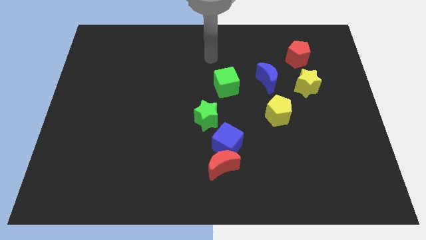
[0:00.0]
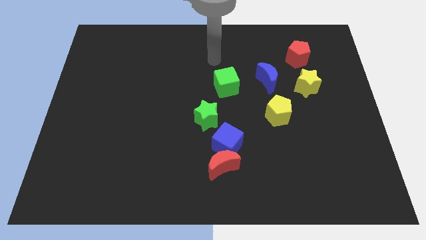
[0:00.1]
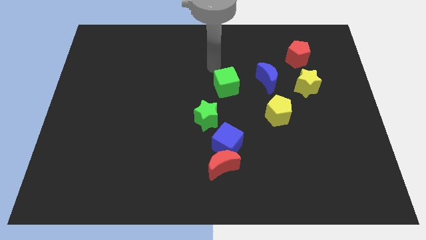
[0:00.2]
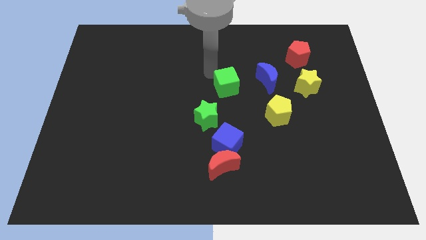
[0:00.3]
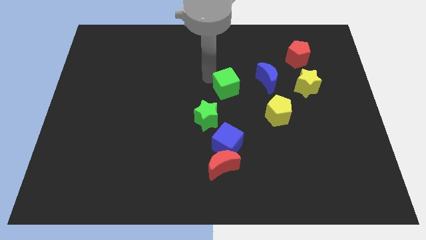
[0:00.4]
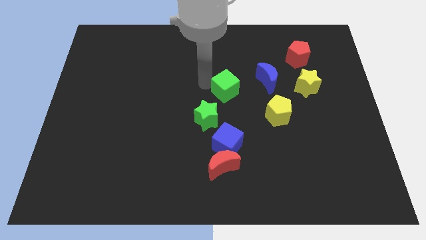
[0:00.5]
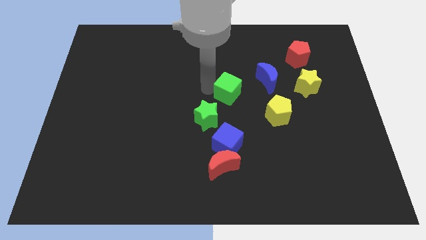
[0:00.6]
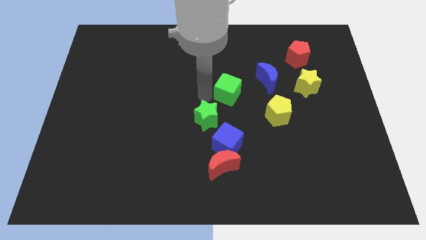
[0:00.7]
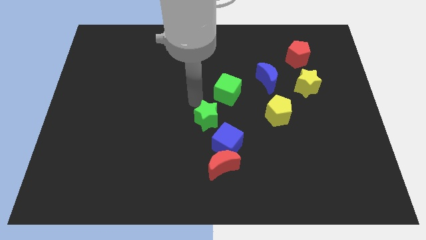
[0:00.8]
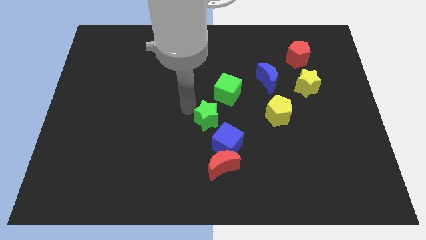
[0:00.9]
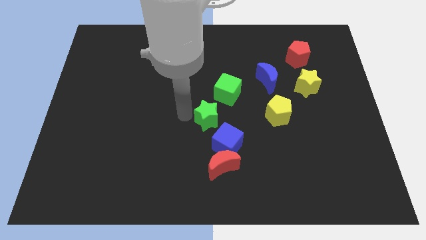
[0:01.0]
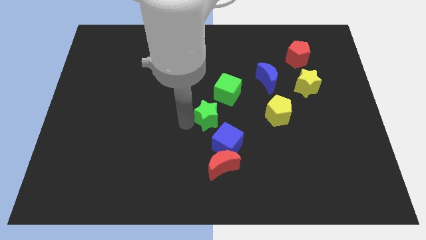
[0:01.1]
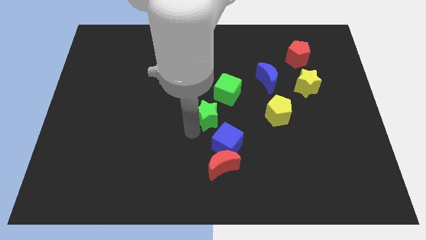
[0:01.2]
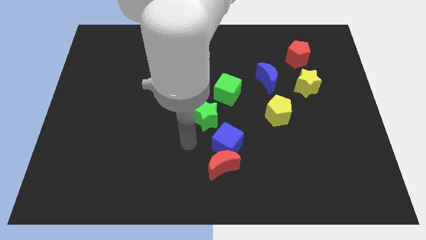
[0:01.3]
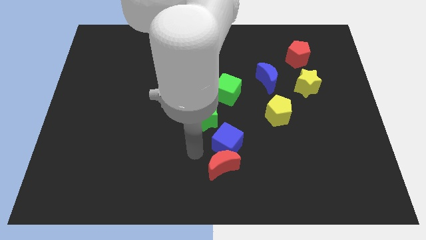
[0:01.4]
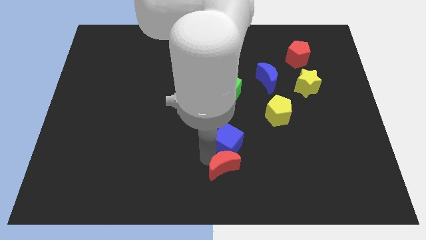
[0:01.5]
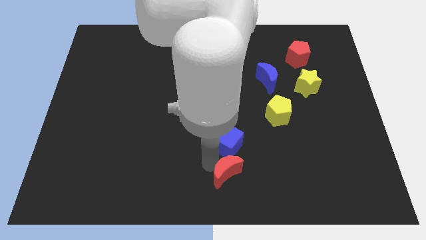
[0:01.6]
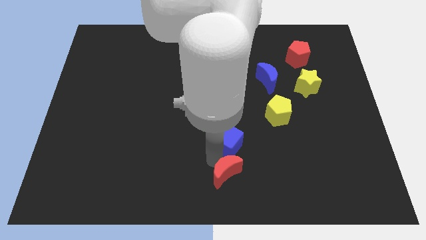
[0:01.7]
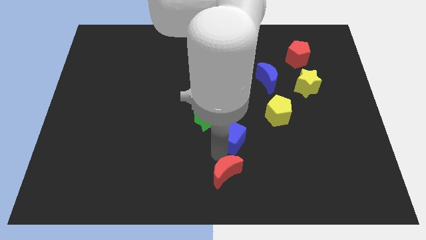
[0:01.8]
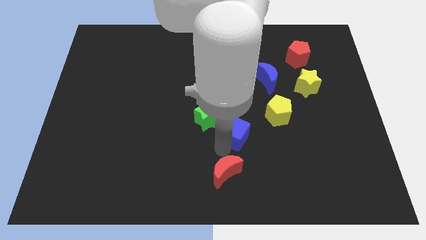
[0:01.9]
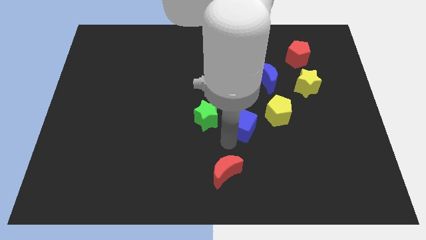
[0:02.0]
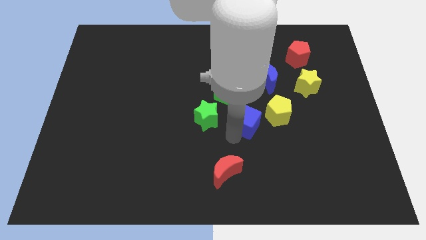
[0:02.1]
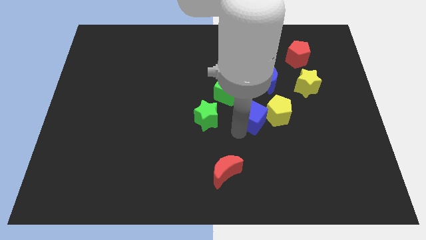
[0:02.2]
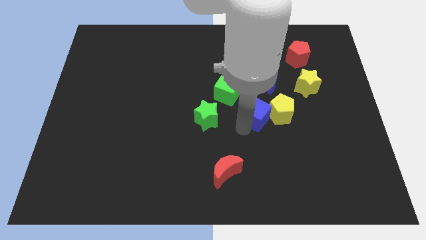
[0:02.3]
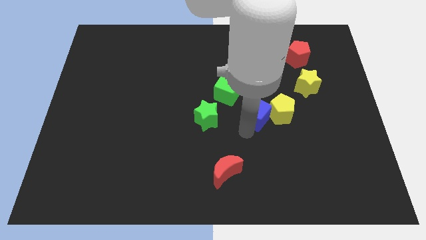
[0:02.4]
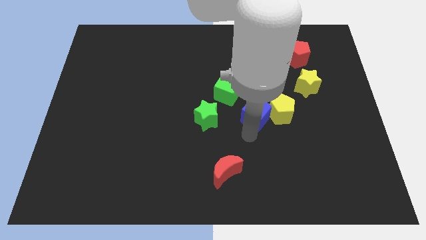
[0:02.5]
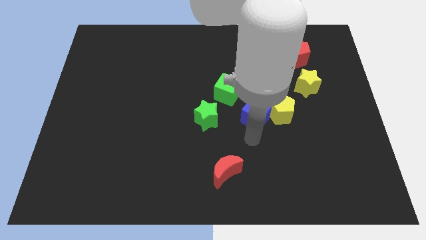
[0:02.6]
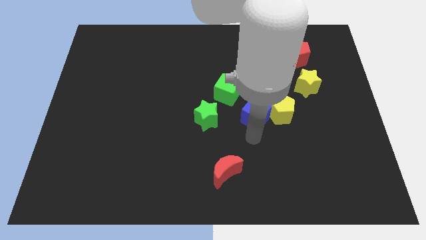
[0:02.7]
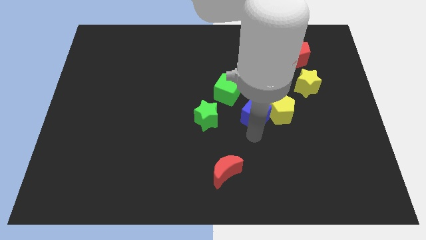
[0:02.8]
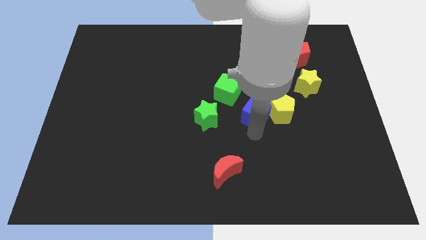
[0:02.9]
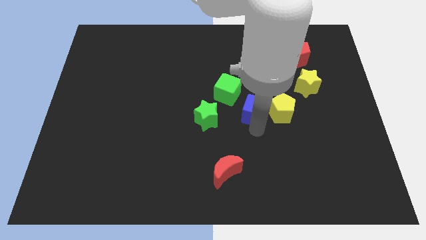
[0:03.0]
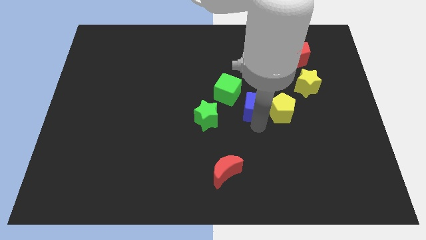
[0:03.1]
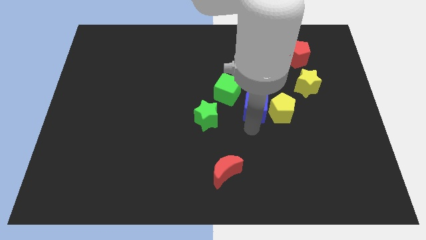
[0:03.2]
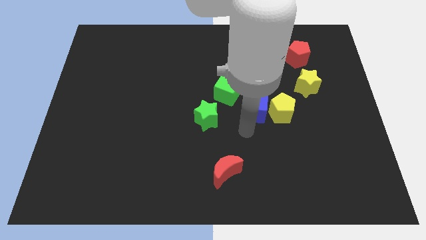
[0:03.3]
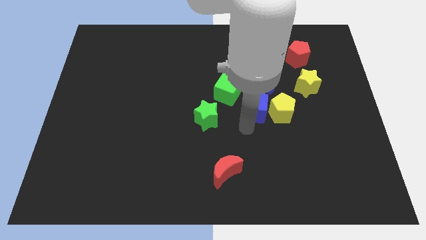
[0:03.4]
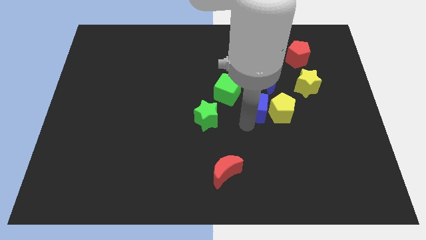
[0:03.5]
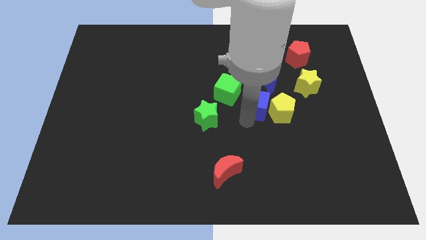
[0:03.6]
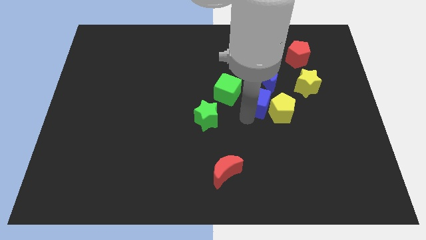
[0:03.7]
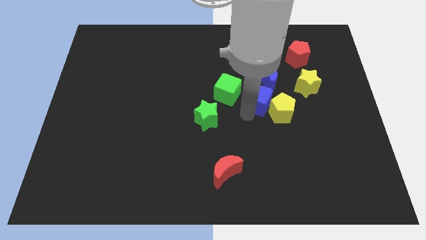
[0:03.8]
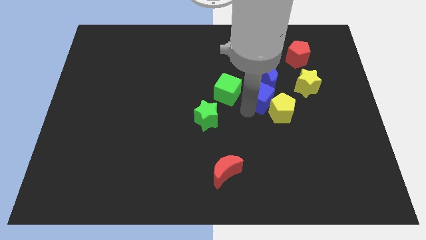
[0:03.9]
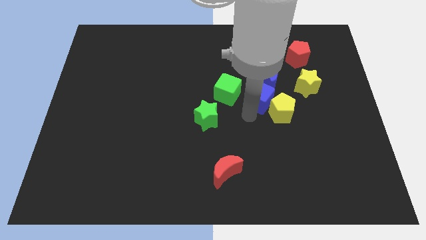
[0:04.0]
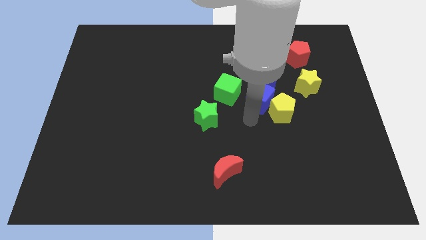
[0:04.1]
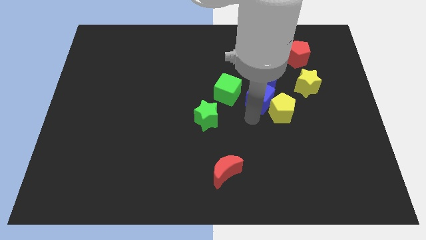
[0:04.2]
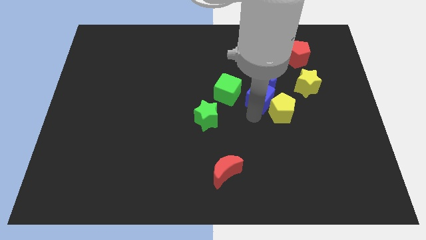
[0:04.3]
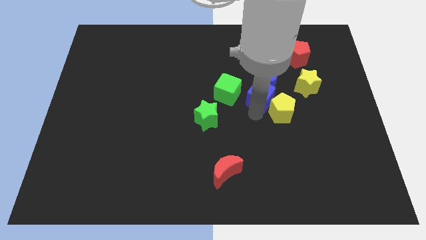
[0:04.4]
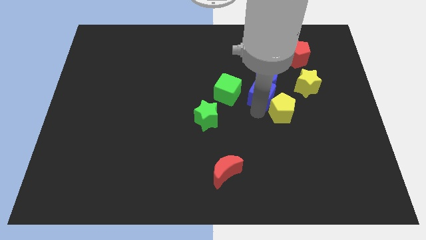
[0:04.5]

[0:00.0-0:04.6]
move the blue cube to the blue moon

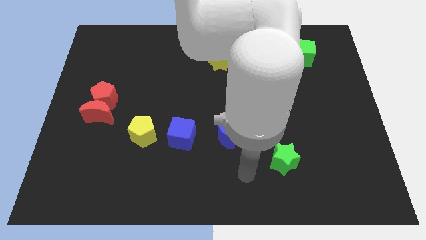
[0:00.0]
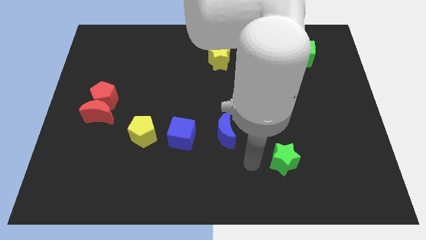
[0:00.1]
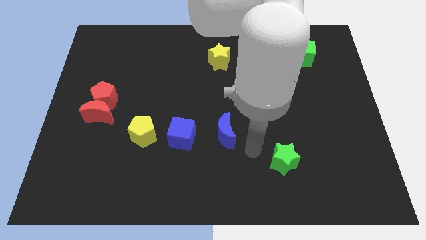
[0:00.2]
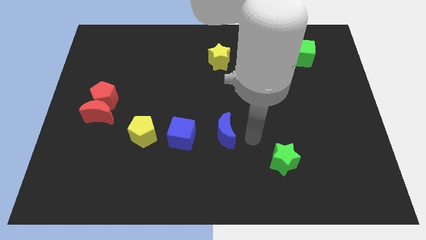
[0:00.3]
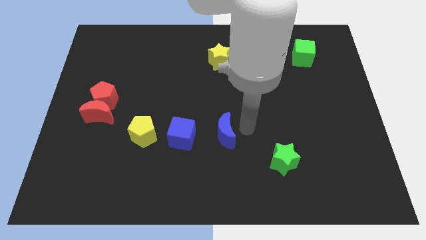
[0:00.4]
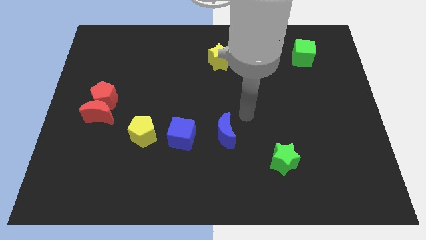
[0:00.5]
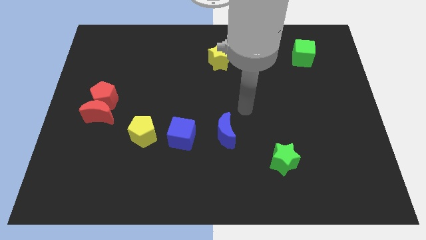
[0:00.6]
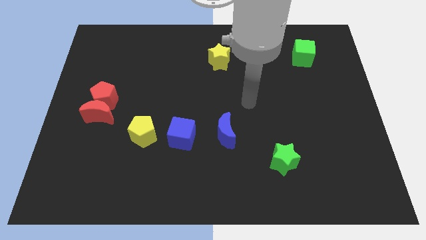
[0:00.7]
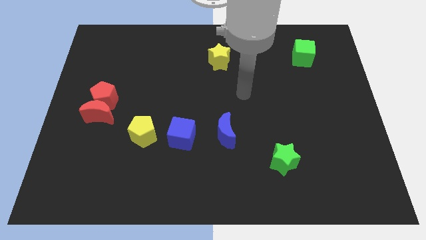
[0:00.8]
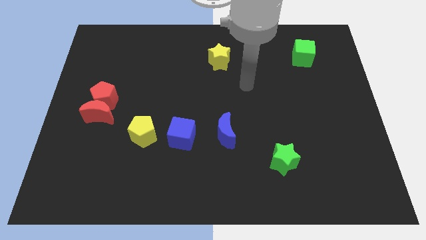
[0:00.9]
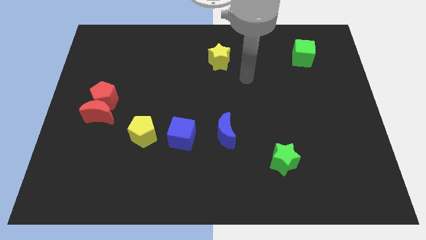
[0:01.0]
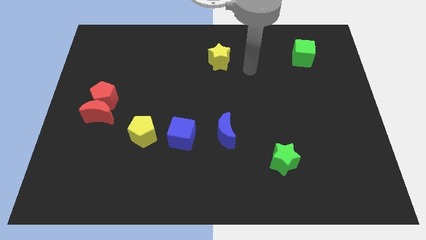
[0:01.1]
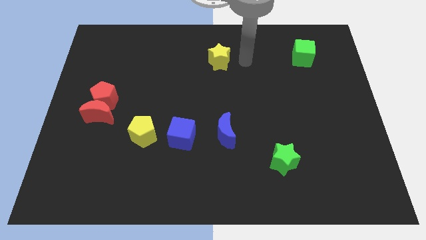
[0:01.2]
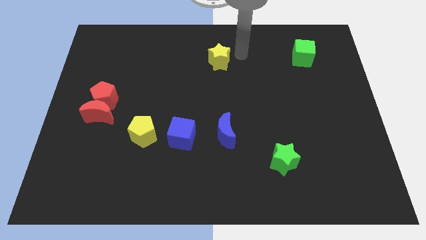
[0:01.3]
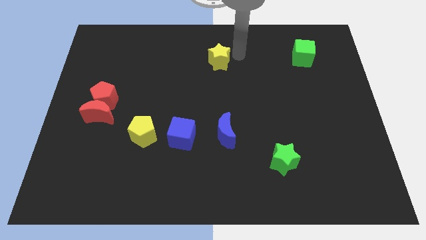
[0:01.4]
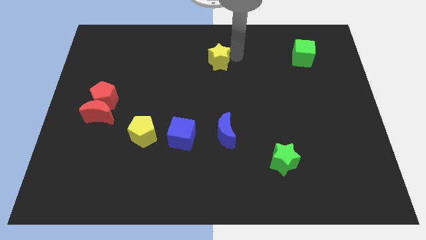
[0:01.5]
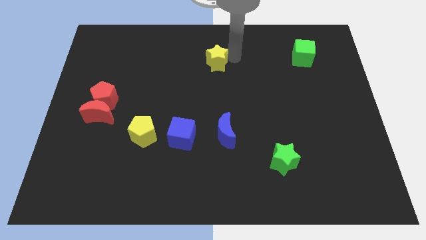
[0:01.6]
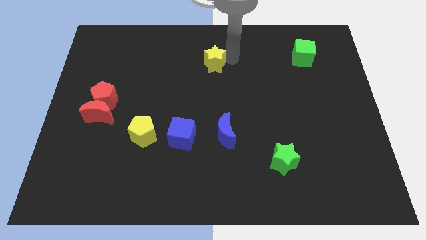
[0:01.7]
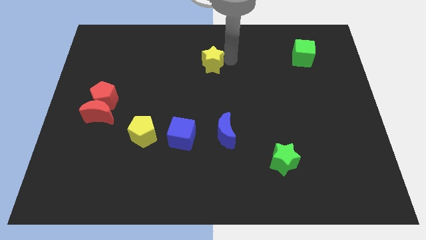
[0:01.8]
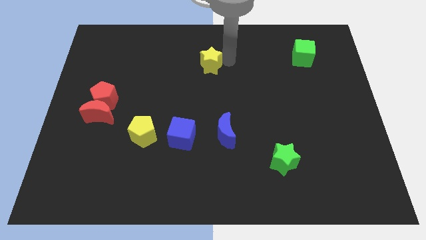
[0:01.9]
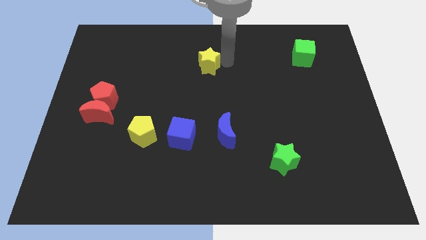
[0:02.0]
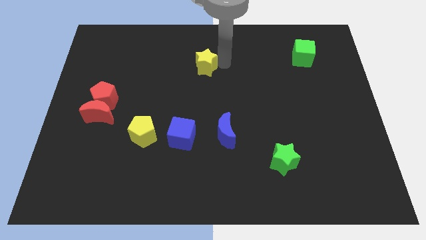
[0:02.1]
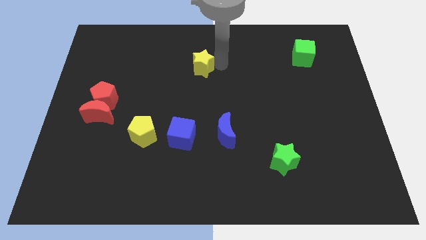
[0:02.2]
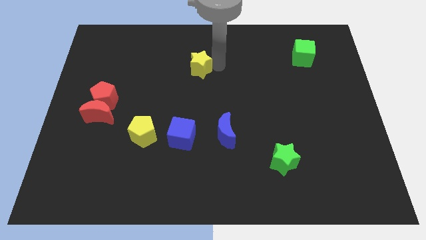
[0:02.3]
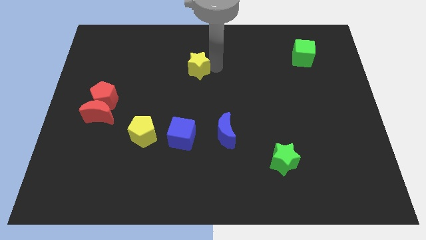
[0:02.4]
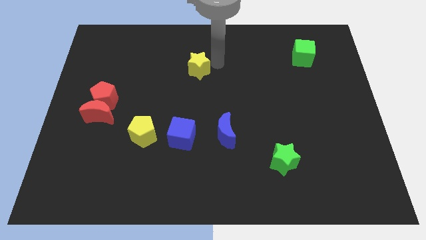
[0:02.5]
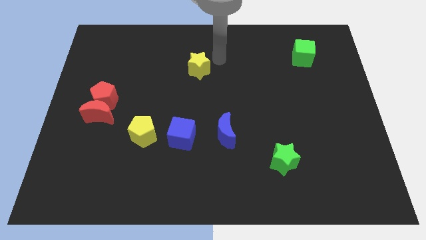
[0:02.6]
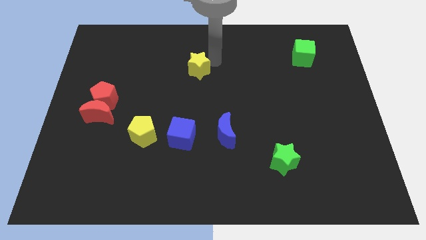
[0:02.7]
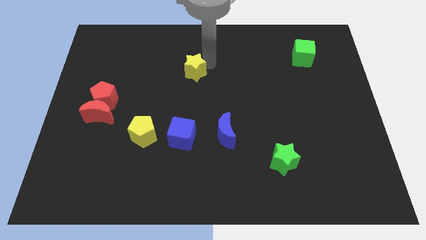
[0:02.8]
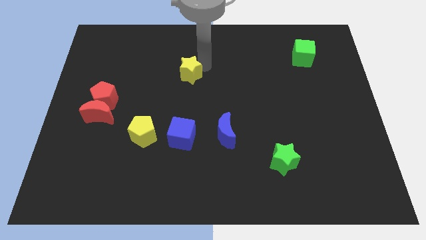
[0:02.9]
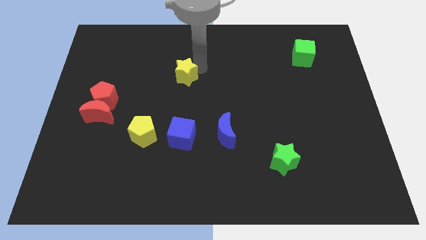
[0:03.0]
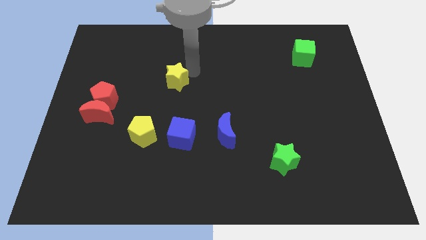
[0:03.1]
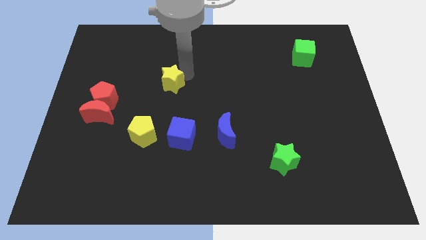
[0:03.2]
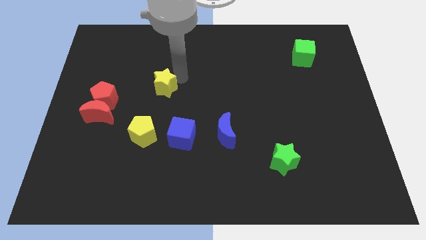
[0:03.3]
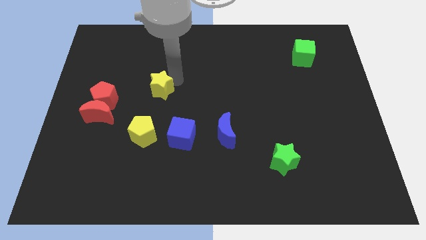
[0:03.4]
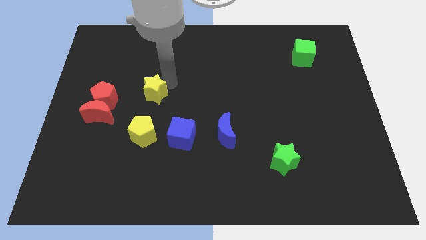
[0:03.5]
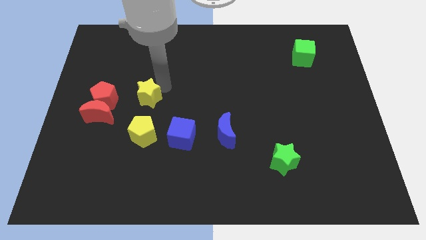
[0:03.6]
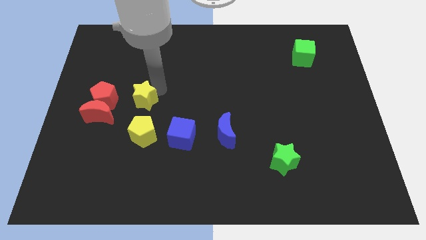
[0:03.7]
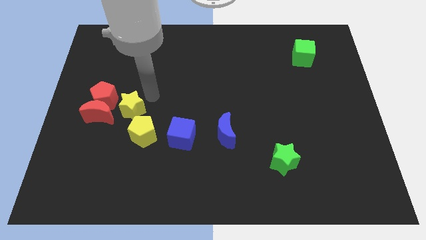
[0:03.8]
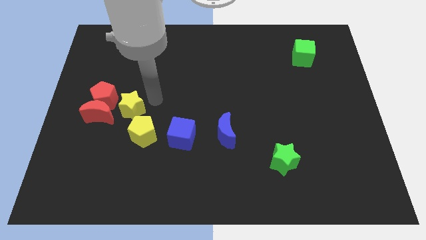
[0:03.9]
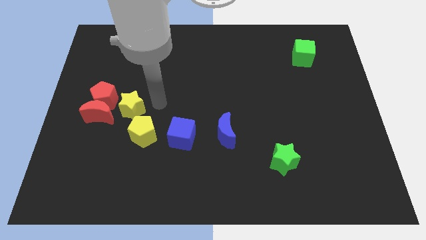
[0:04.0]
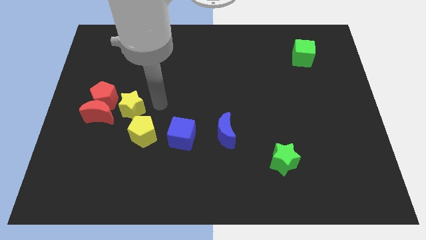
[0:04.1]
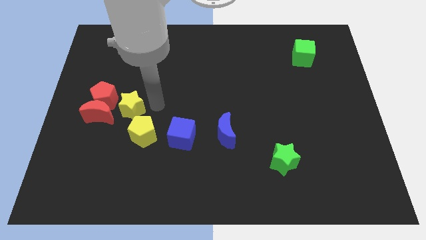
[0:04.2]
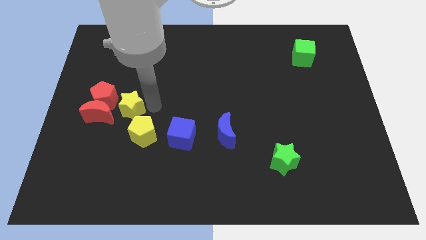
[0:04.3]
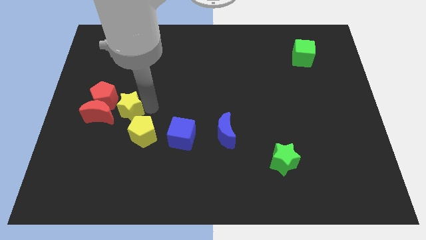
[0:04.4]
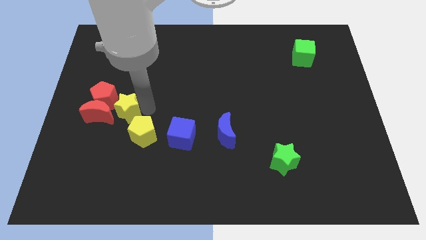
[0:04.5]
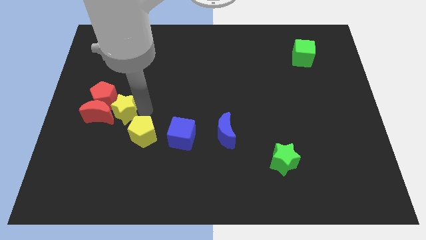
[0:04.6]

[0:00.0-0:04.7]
put the yellow star close to the red moon
